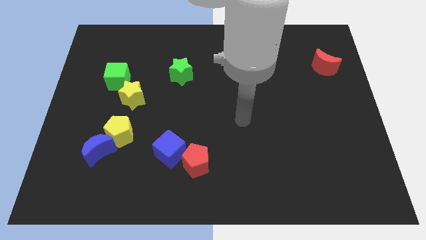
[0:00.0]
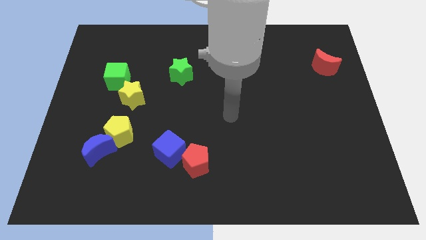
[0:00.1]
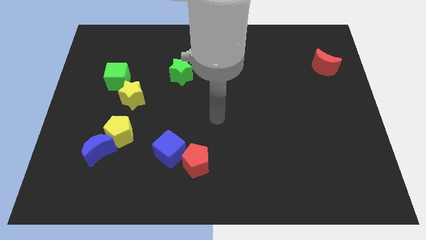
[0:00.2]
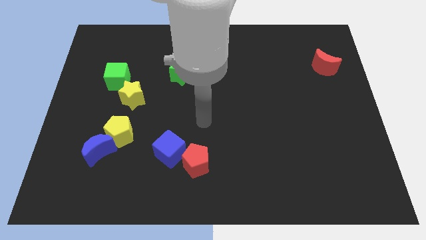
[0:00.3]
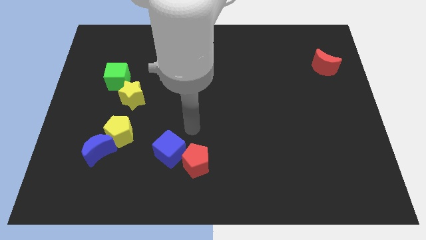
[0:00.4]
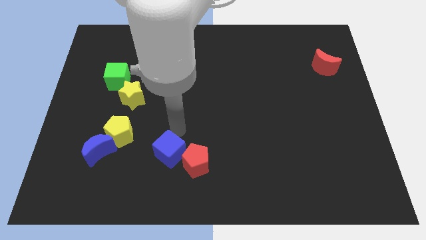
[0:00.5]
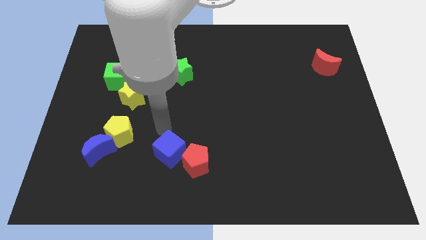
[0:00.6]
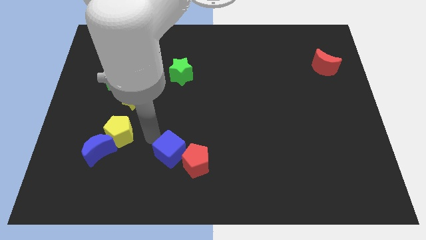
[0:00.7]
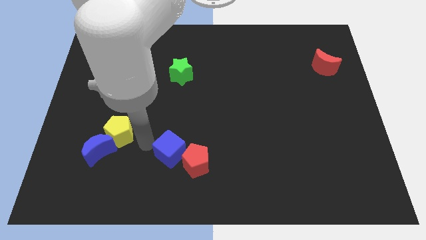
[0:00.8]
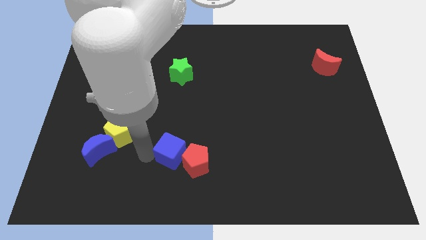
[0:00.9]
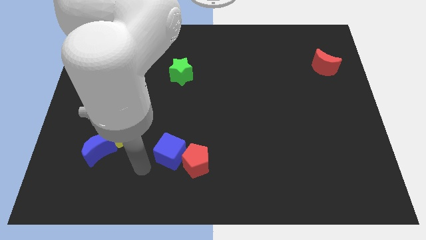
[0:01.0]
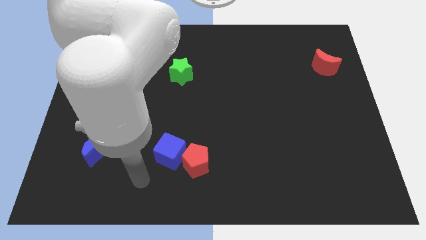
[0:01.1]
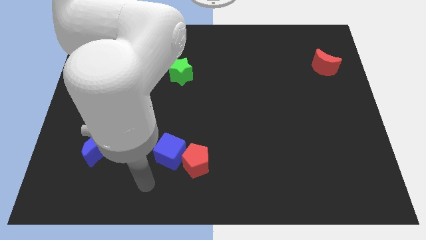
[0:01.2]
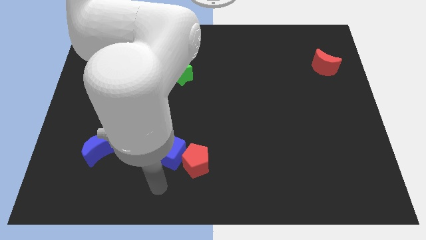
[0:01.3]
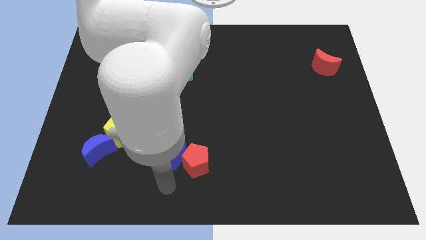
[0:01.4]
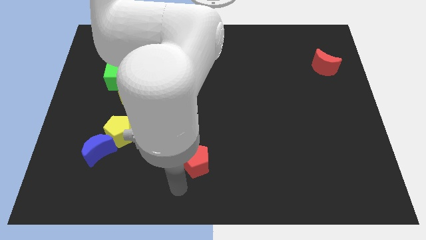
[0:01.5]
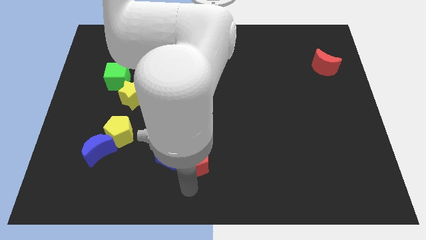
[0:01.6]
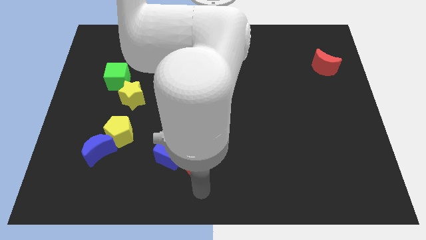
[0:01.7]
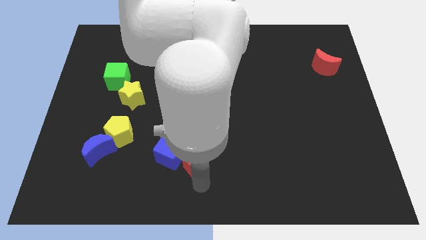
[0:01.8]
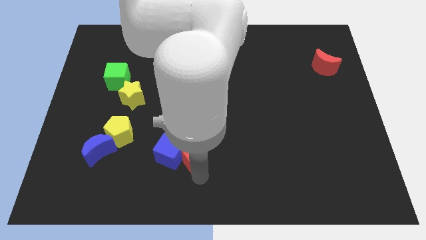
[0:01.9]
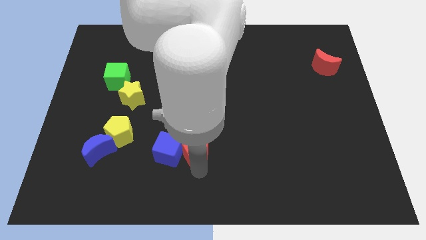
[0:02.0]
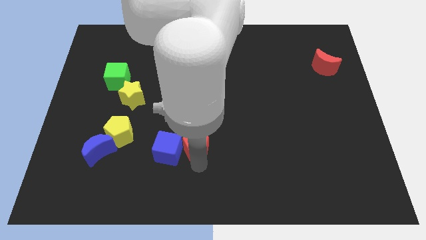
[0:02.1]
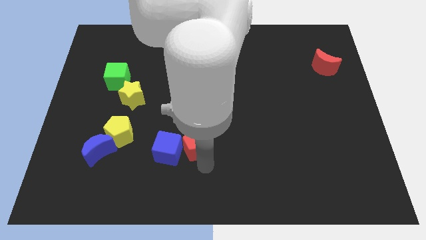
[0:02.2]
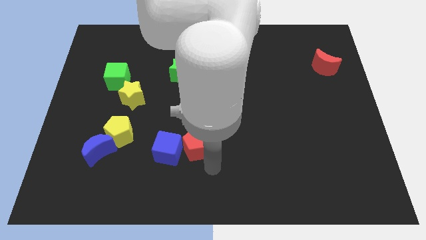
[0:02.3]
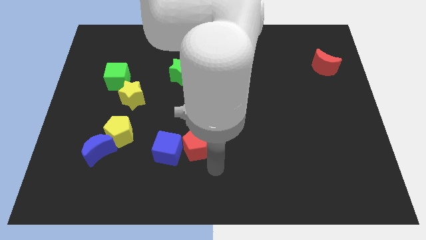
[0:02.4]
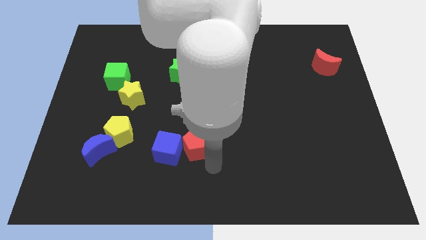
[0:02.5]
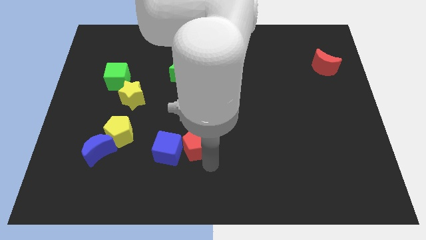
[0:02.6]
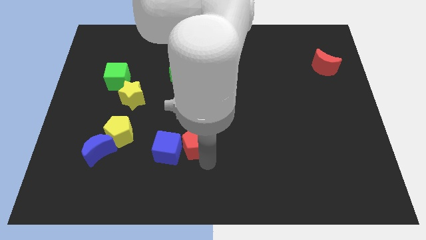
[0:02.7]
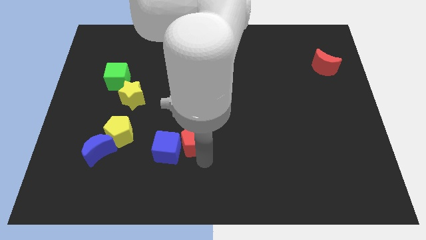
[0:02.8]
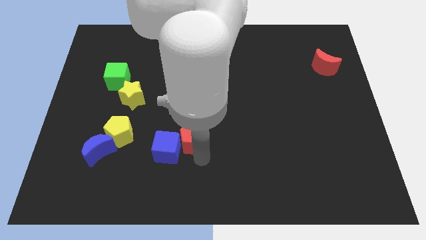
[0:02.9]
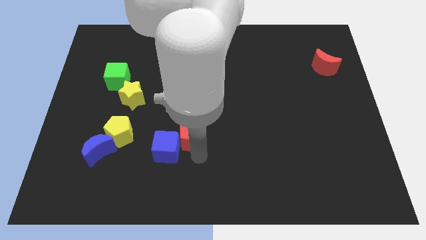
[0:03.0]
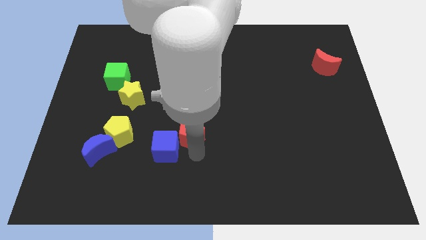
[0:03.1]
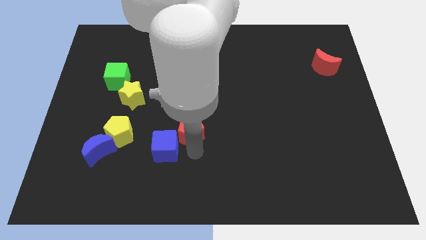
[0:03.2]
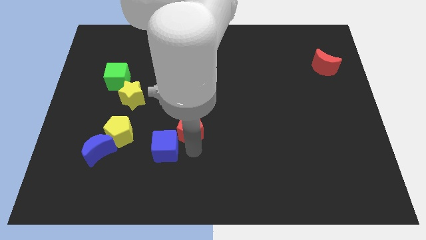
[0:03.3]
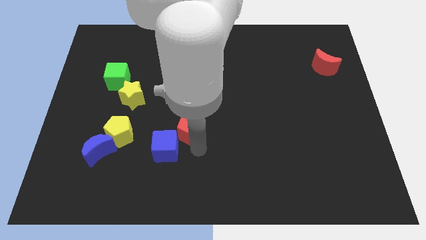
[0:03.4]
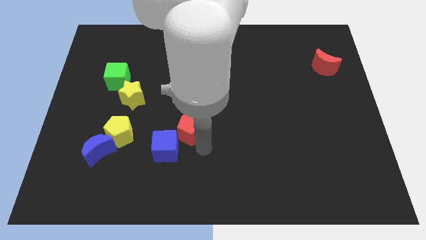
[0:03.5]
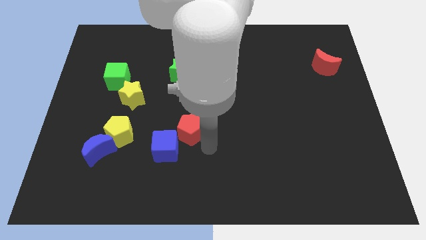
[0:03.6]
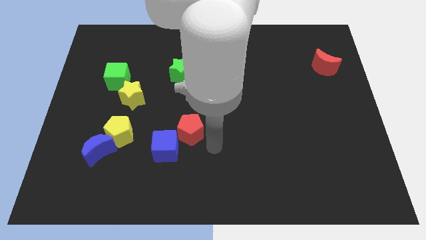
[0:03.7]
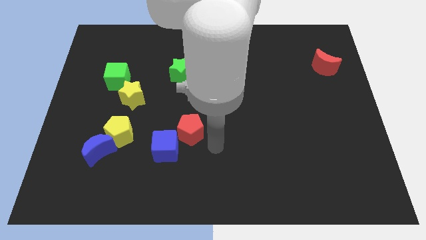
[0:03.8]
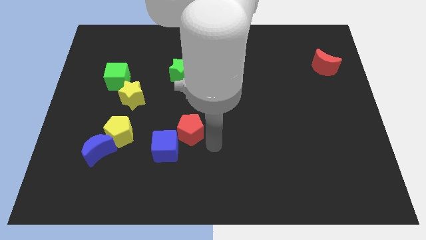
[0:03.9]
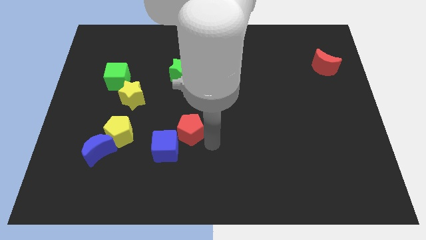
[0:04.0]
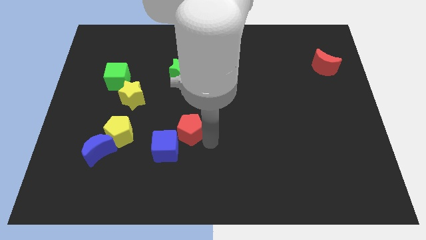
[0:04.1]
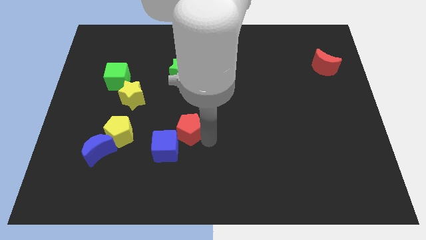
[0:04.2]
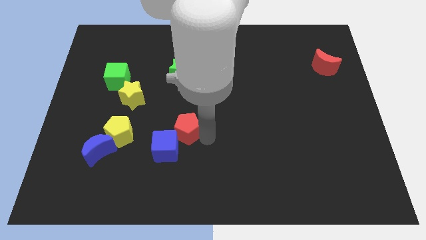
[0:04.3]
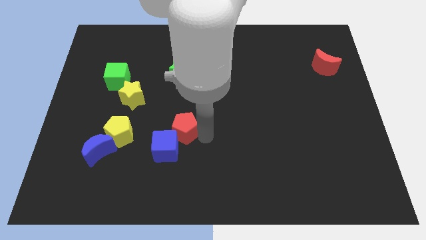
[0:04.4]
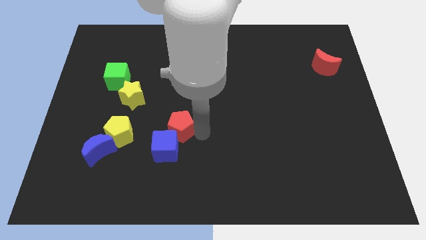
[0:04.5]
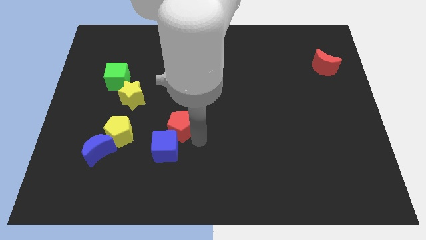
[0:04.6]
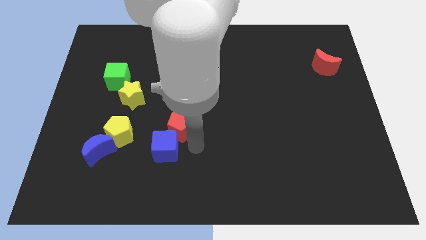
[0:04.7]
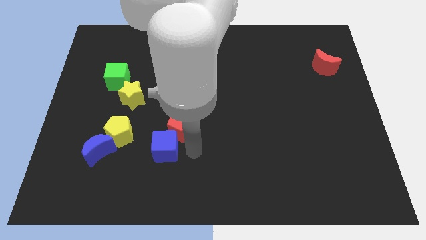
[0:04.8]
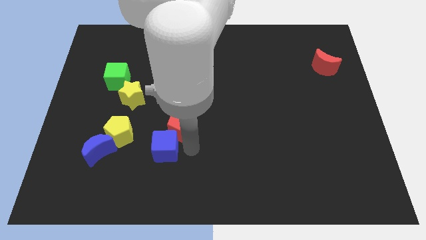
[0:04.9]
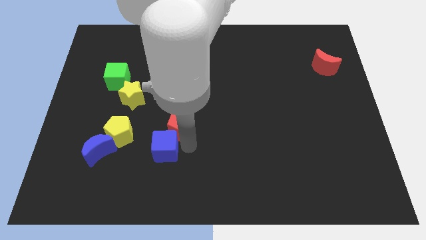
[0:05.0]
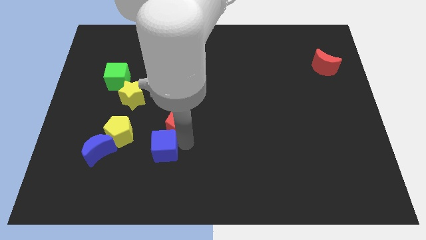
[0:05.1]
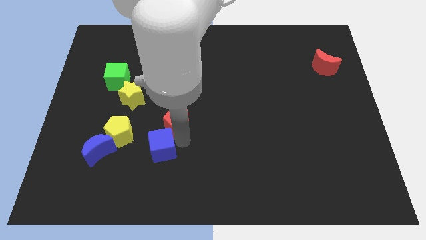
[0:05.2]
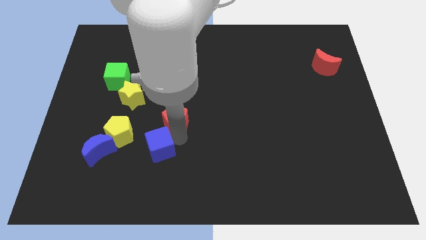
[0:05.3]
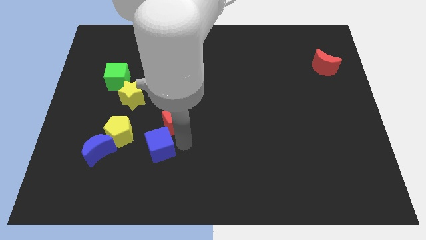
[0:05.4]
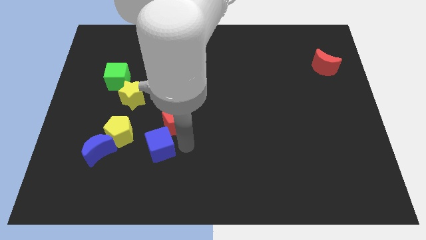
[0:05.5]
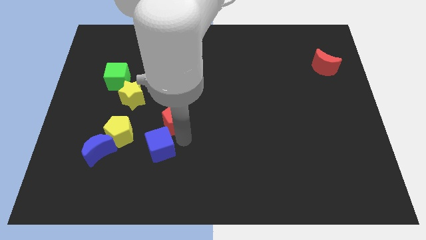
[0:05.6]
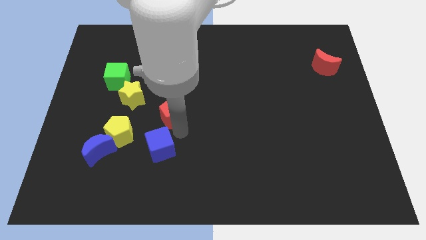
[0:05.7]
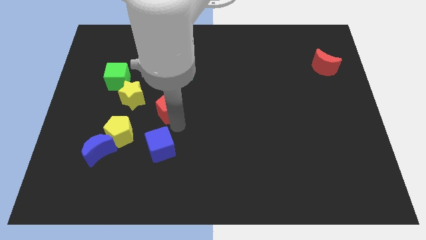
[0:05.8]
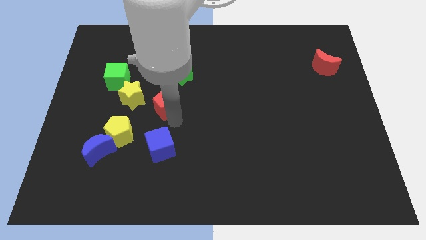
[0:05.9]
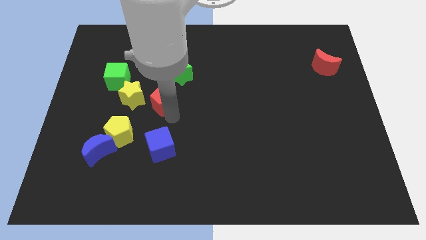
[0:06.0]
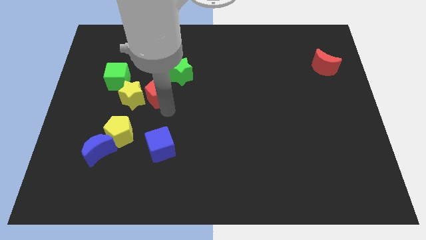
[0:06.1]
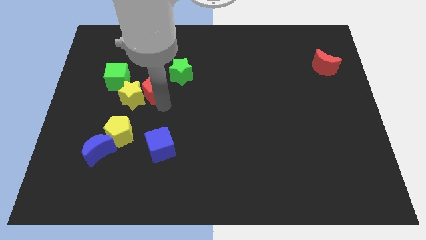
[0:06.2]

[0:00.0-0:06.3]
slide the red pentagon just right of the green cube

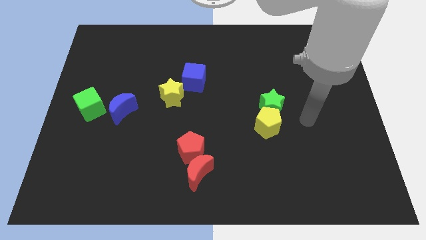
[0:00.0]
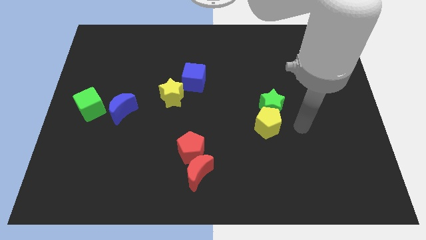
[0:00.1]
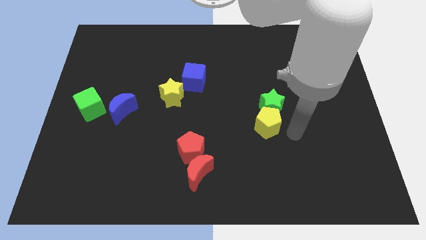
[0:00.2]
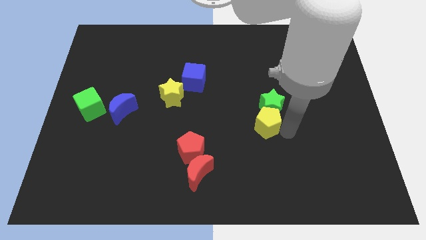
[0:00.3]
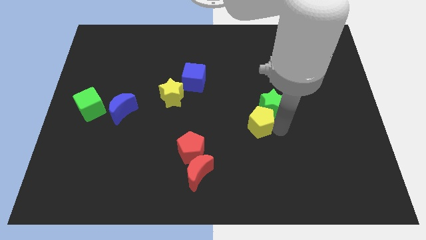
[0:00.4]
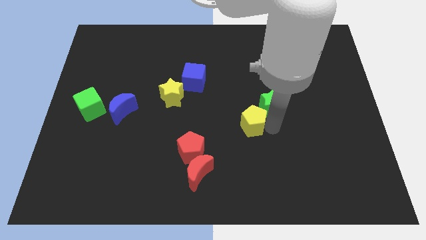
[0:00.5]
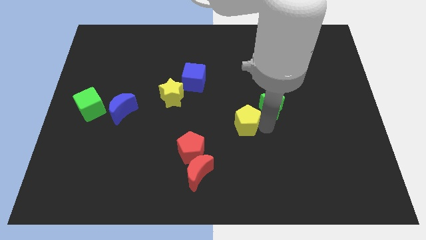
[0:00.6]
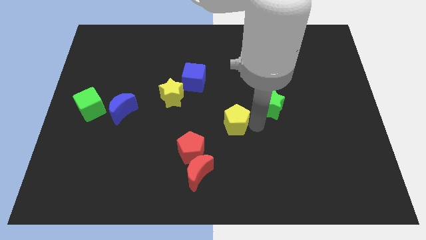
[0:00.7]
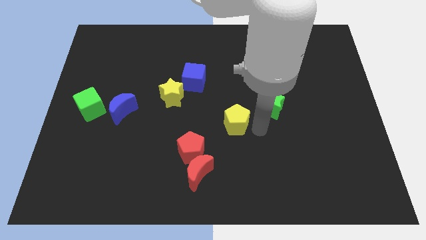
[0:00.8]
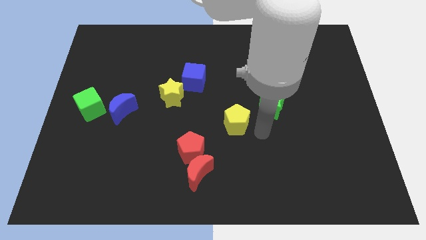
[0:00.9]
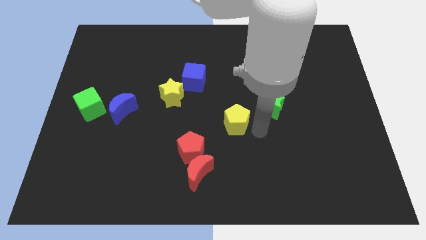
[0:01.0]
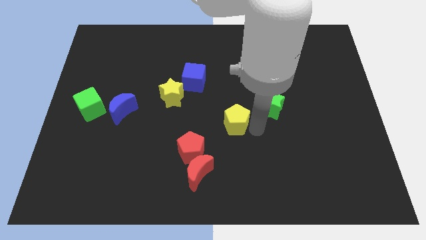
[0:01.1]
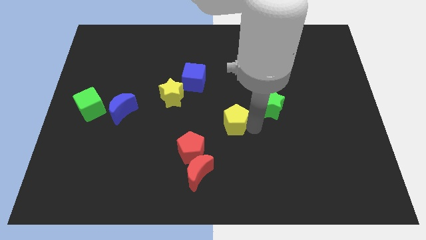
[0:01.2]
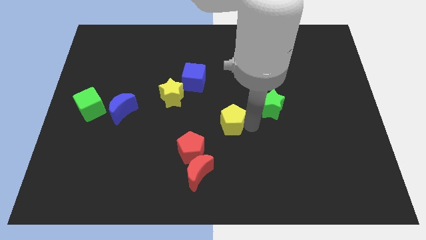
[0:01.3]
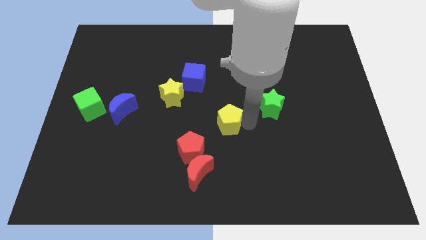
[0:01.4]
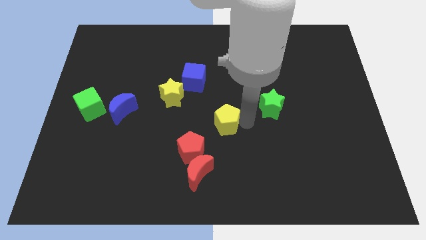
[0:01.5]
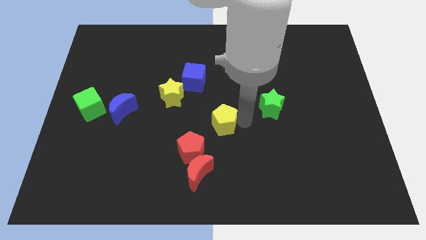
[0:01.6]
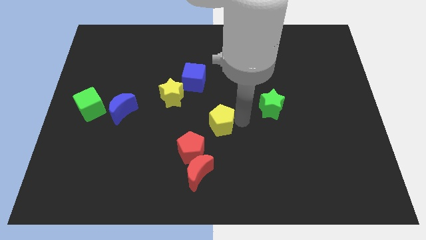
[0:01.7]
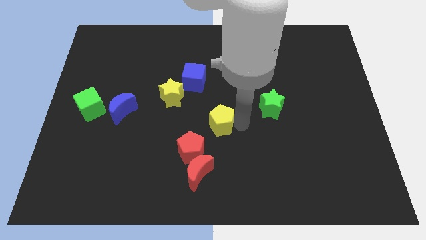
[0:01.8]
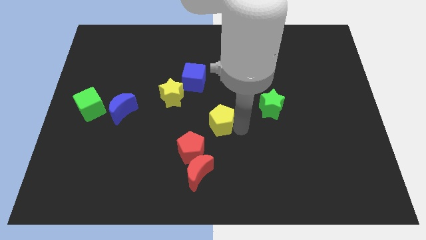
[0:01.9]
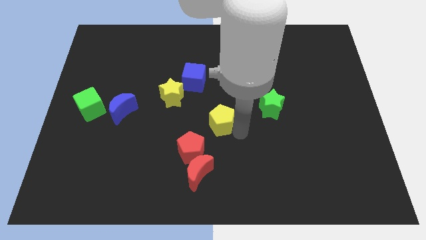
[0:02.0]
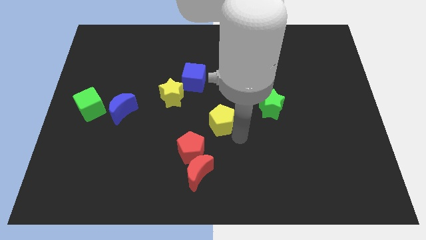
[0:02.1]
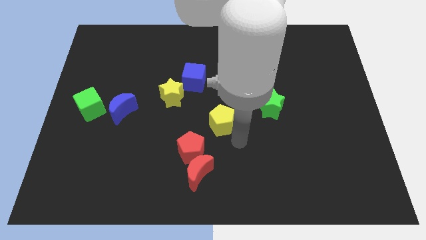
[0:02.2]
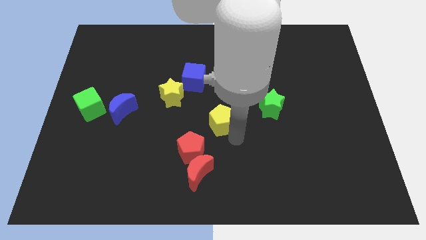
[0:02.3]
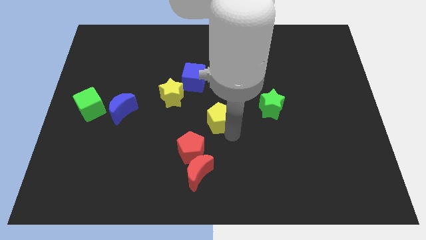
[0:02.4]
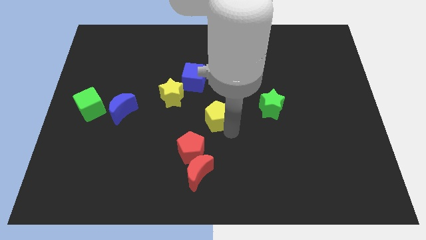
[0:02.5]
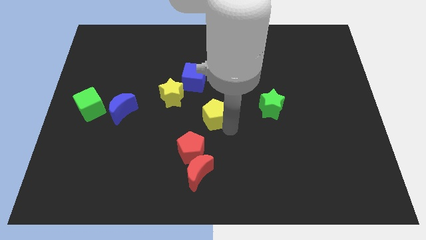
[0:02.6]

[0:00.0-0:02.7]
move the yellow pentagon diagonally down and to the right of the yellow star
